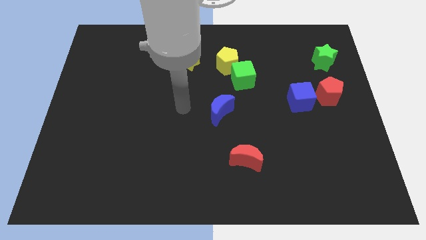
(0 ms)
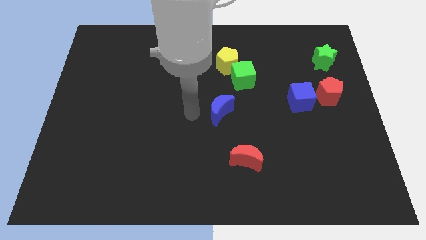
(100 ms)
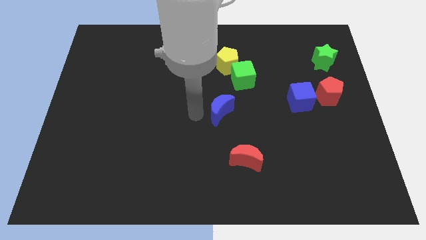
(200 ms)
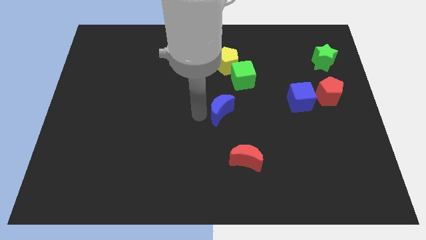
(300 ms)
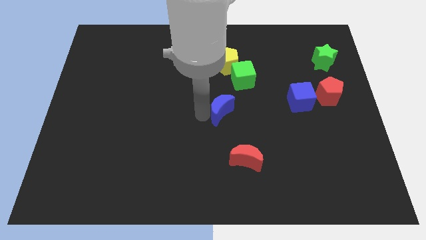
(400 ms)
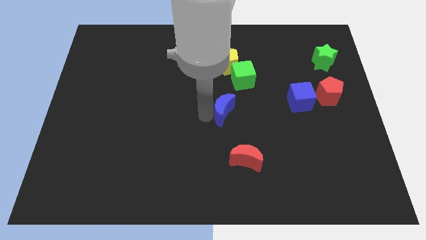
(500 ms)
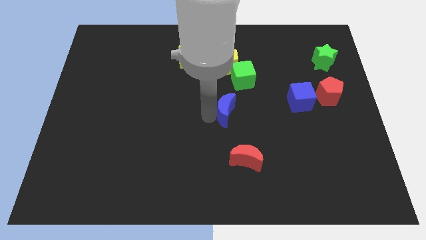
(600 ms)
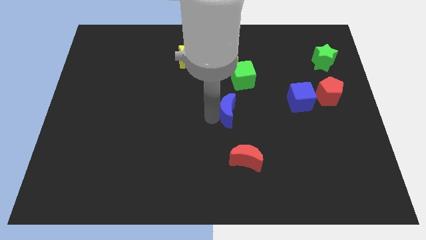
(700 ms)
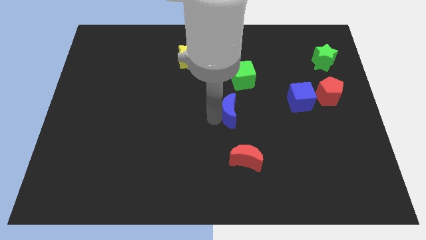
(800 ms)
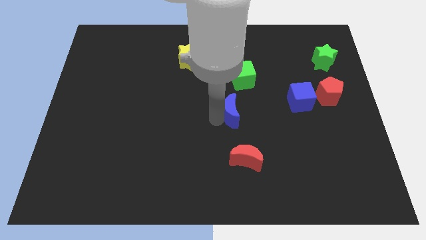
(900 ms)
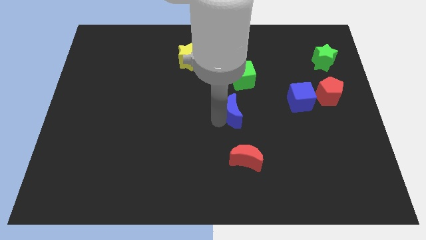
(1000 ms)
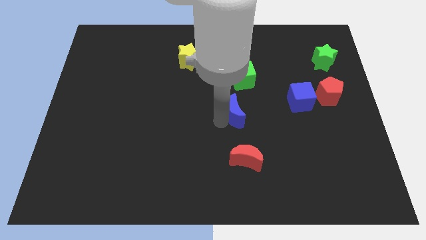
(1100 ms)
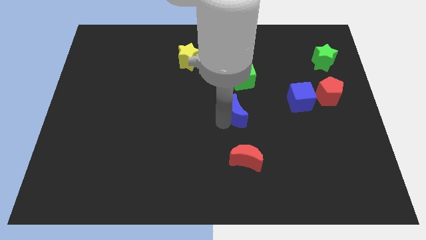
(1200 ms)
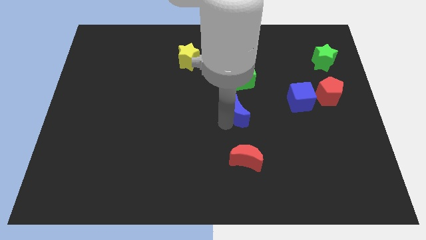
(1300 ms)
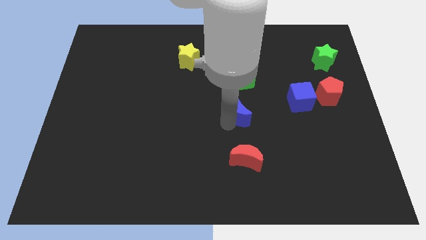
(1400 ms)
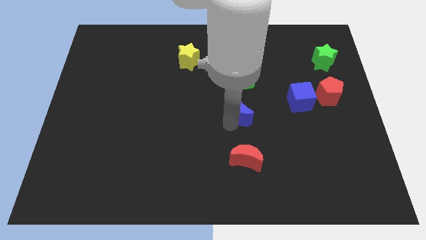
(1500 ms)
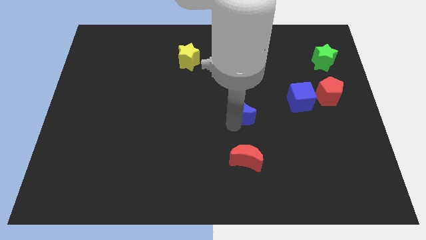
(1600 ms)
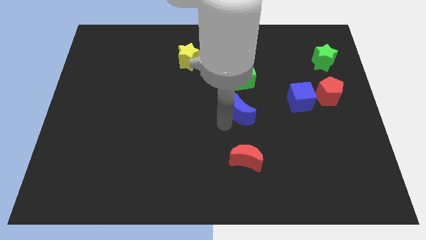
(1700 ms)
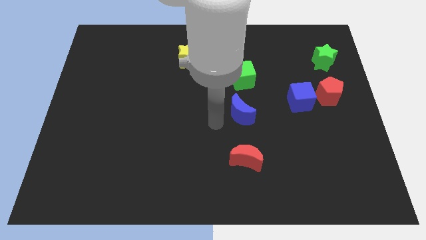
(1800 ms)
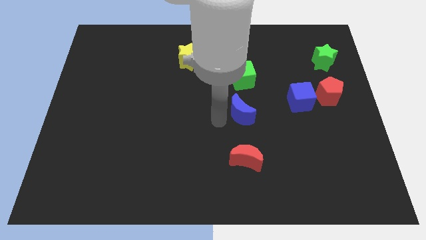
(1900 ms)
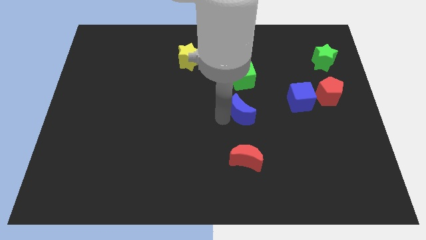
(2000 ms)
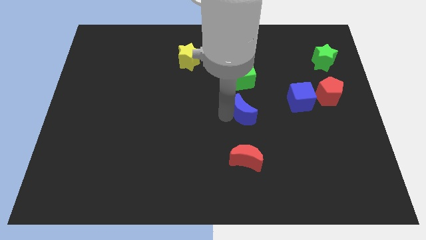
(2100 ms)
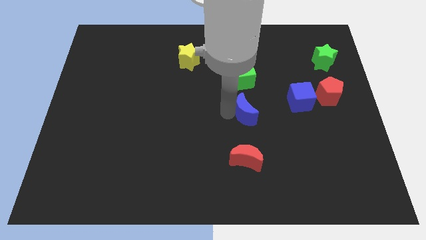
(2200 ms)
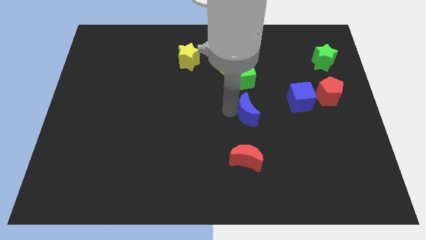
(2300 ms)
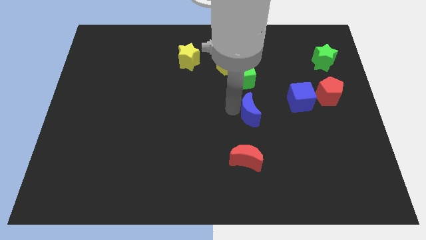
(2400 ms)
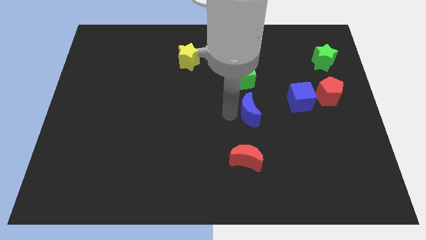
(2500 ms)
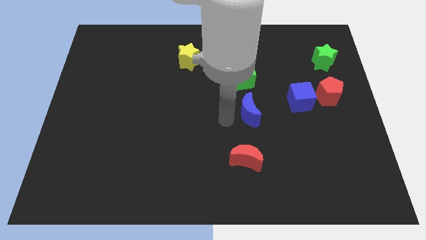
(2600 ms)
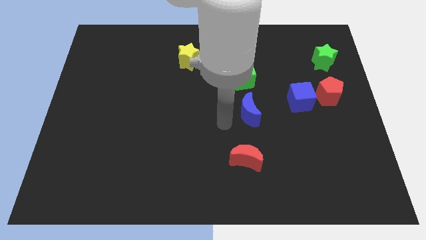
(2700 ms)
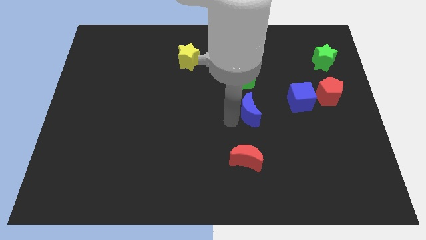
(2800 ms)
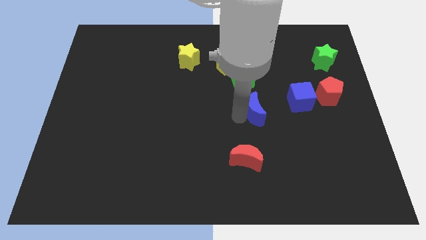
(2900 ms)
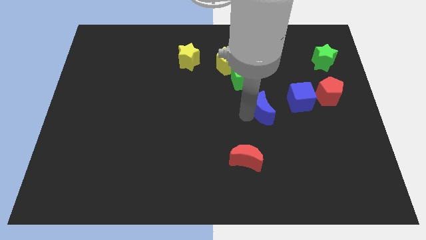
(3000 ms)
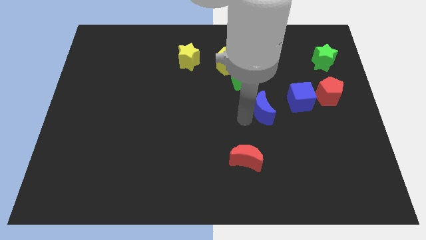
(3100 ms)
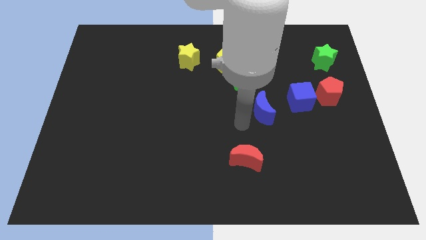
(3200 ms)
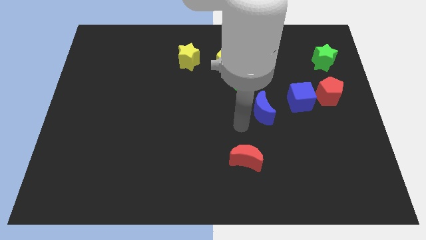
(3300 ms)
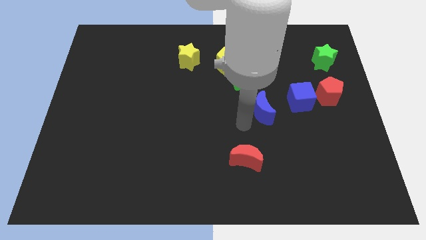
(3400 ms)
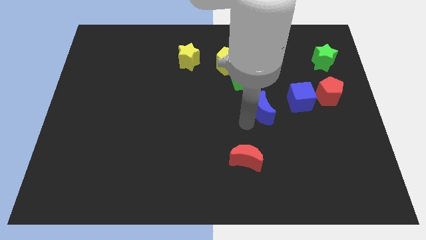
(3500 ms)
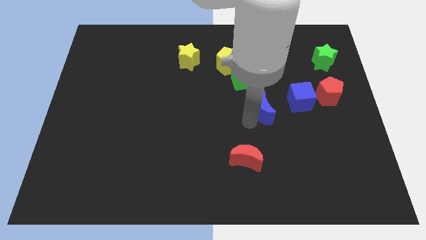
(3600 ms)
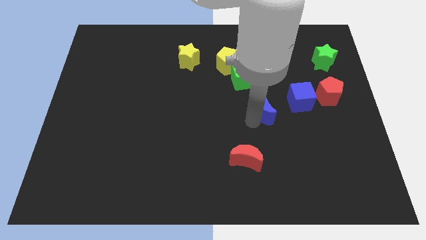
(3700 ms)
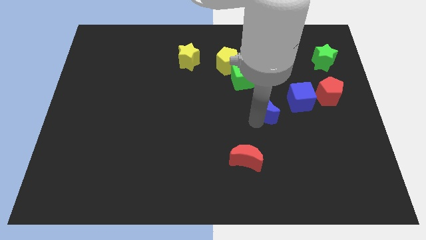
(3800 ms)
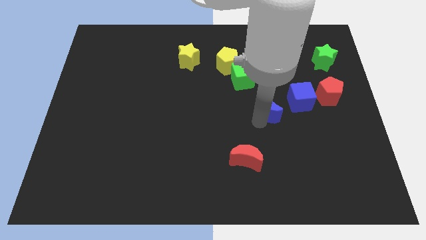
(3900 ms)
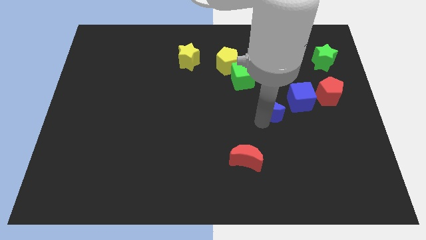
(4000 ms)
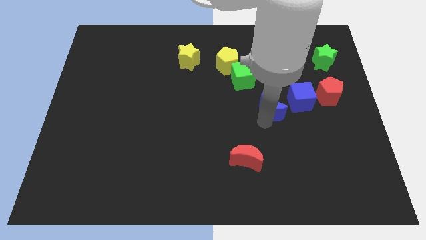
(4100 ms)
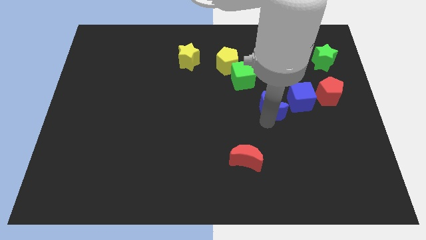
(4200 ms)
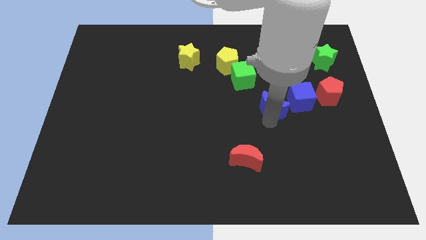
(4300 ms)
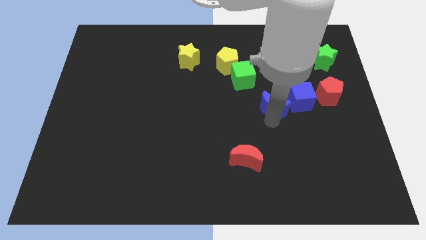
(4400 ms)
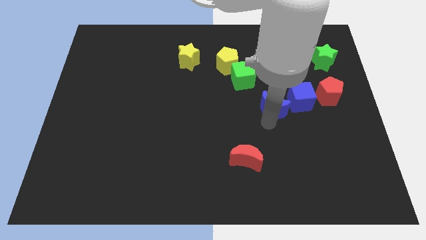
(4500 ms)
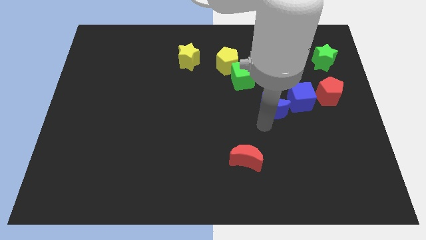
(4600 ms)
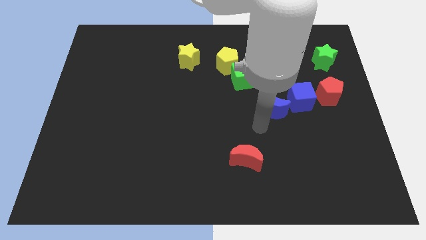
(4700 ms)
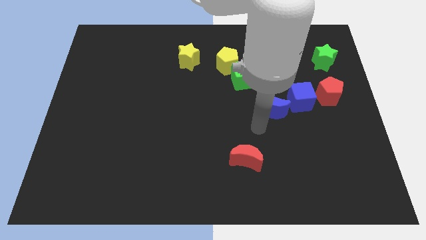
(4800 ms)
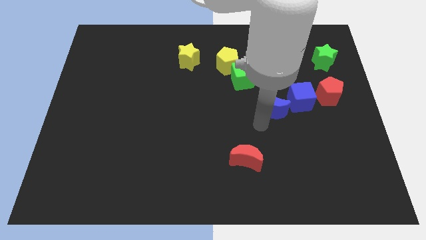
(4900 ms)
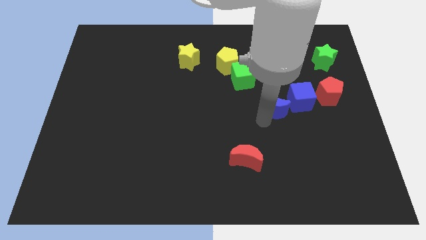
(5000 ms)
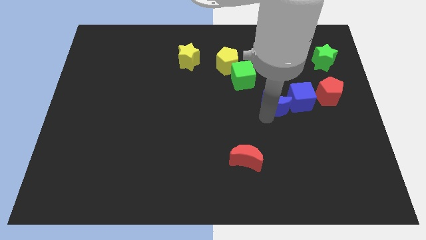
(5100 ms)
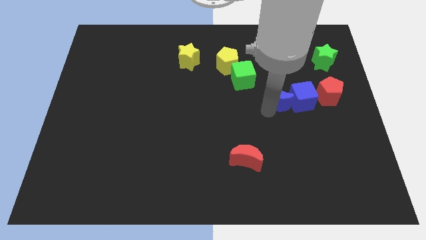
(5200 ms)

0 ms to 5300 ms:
slide the blue moon close to the blue cube

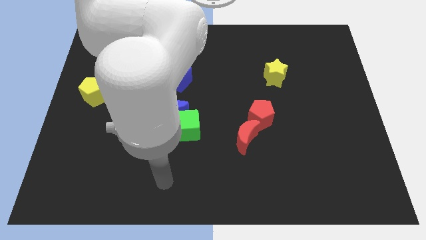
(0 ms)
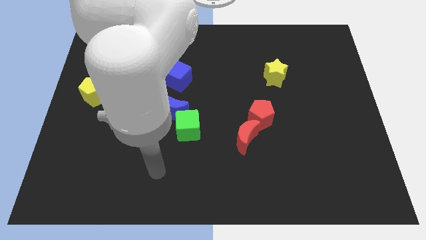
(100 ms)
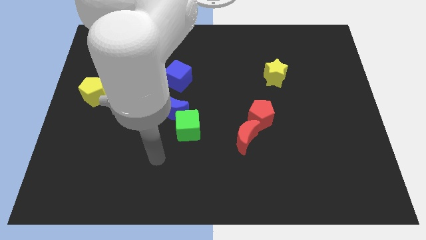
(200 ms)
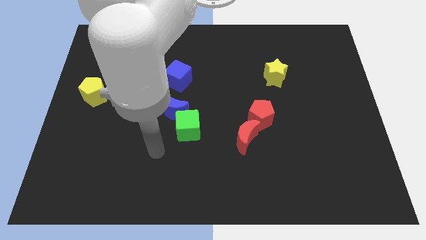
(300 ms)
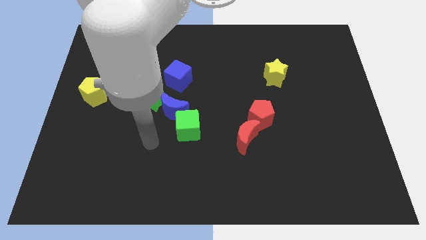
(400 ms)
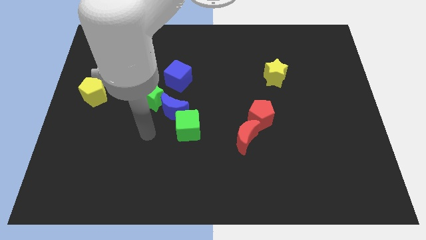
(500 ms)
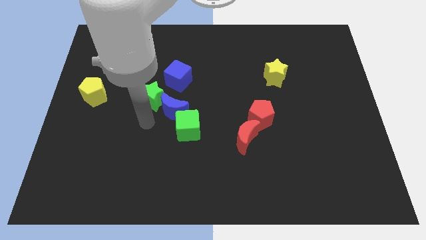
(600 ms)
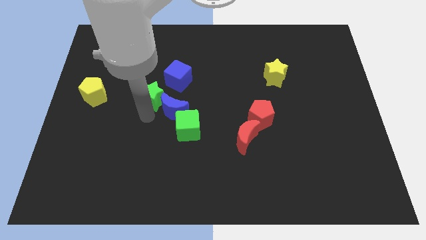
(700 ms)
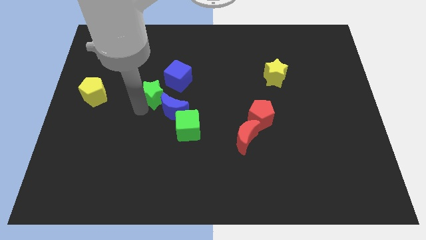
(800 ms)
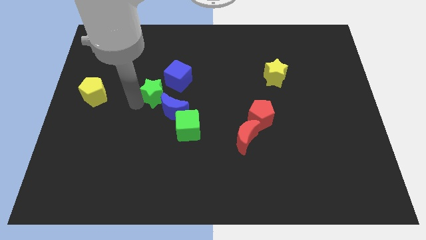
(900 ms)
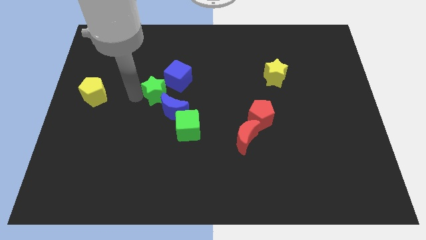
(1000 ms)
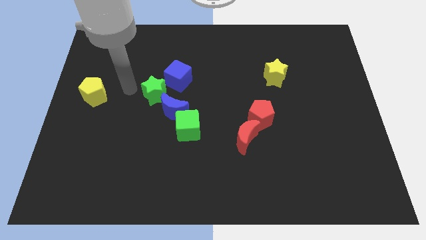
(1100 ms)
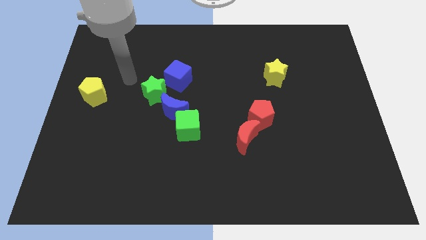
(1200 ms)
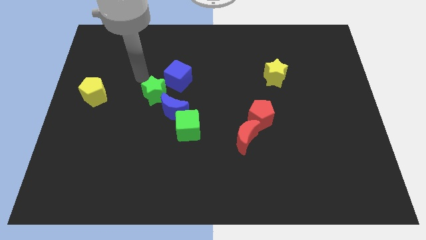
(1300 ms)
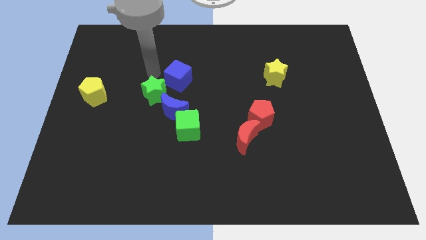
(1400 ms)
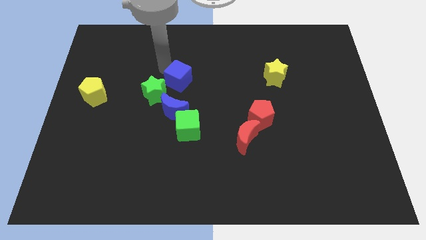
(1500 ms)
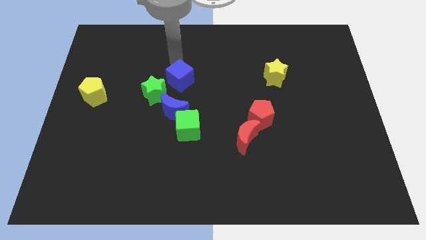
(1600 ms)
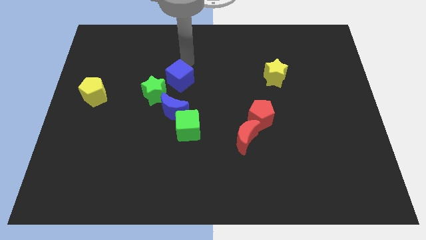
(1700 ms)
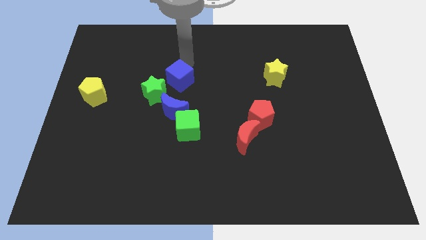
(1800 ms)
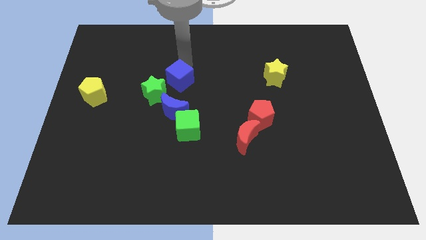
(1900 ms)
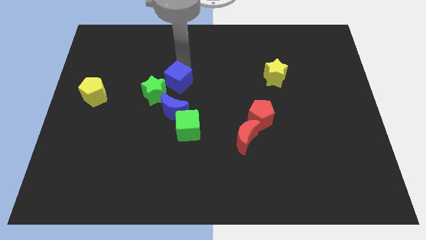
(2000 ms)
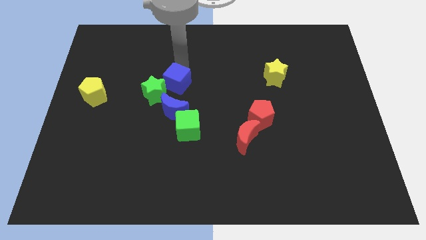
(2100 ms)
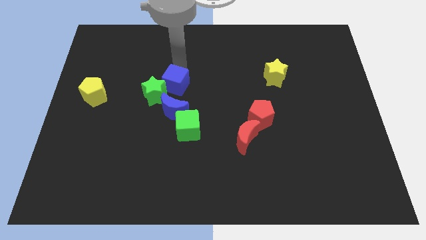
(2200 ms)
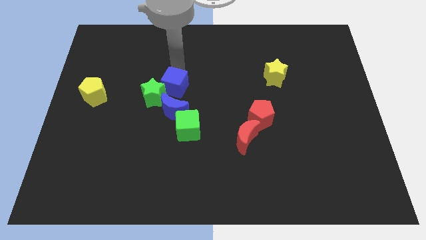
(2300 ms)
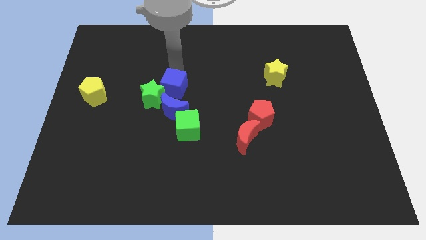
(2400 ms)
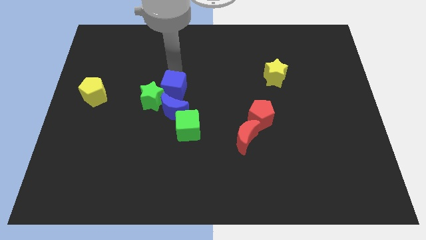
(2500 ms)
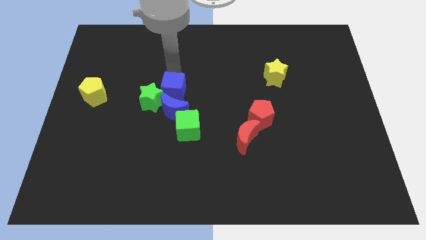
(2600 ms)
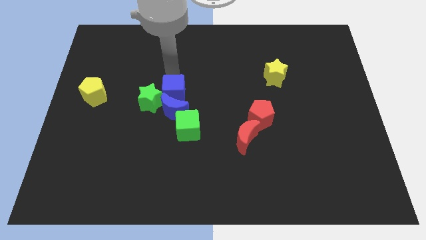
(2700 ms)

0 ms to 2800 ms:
push the blue cube towards the blue moon
